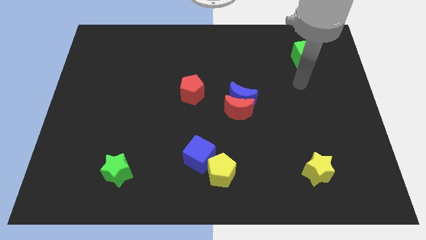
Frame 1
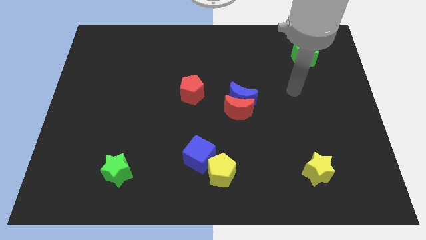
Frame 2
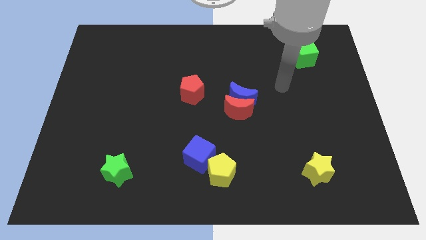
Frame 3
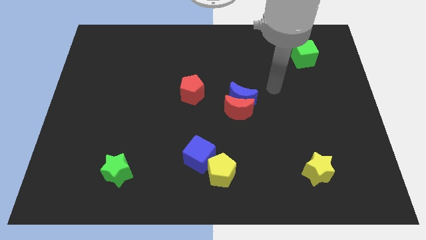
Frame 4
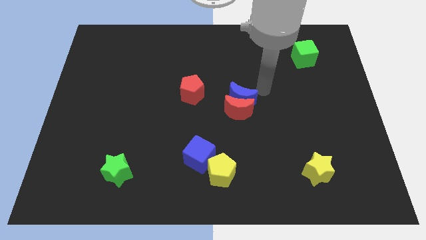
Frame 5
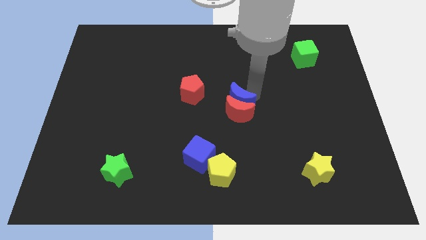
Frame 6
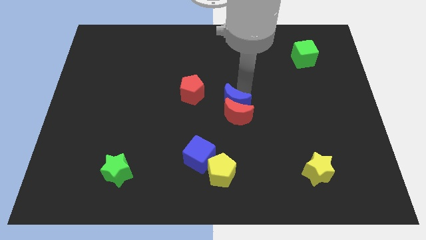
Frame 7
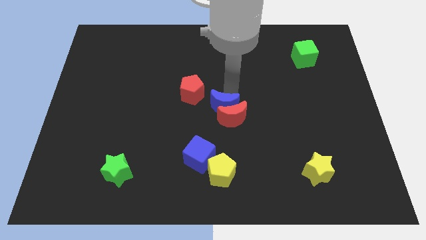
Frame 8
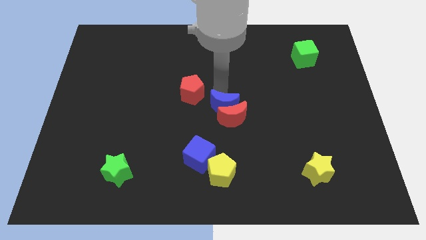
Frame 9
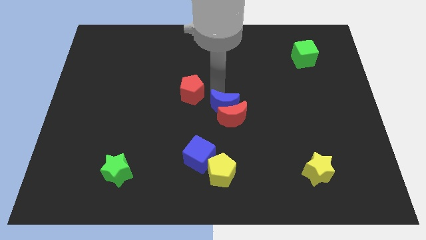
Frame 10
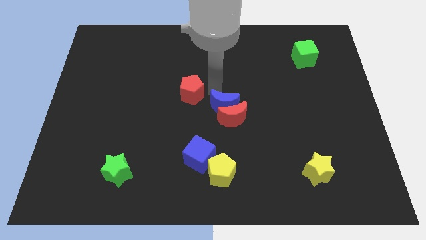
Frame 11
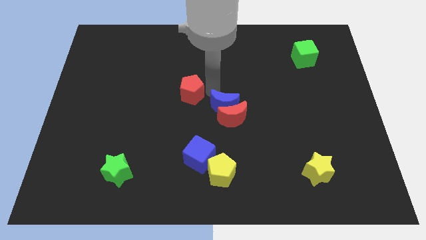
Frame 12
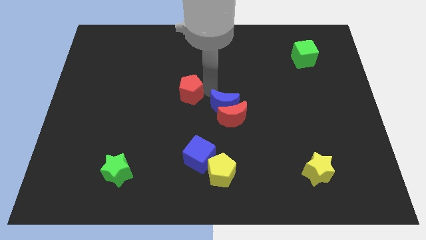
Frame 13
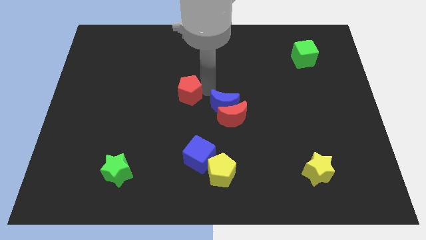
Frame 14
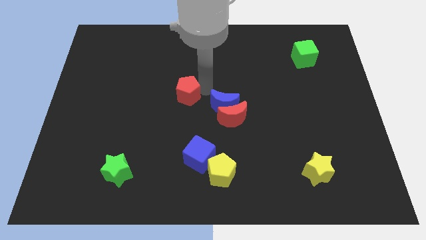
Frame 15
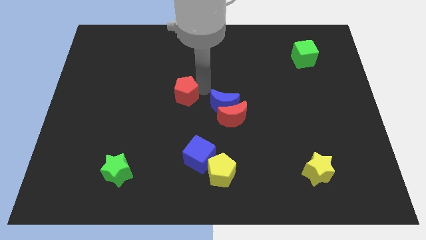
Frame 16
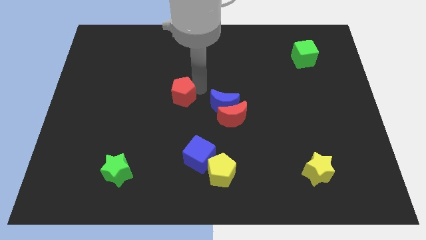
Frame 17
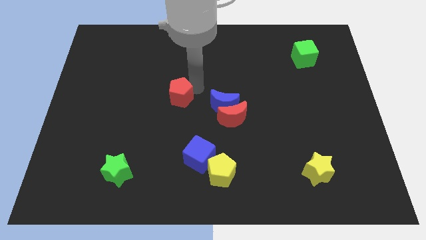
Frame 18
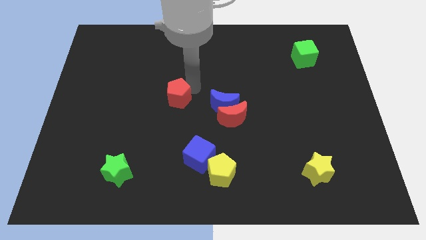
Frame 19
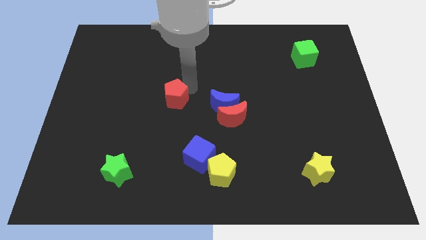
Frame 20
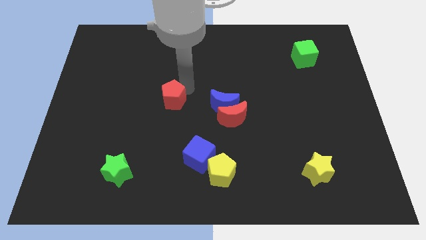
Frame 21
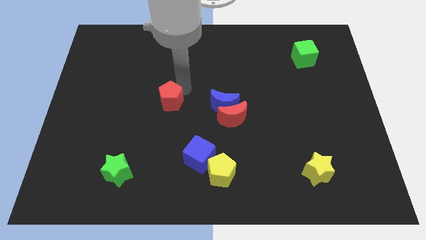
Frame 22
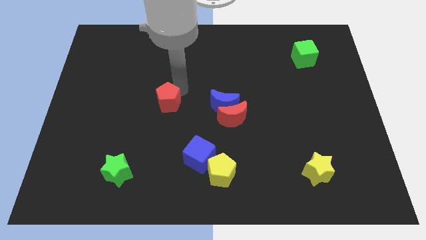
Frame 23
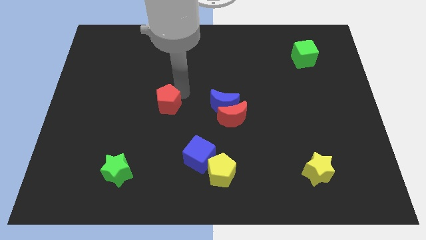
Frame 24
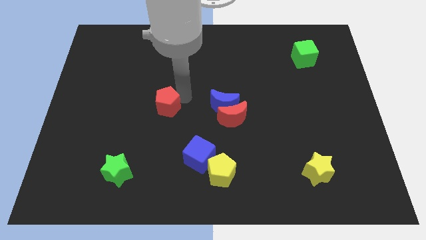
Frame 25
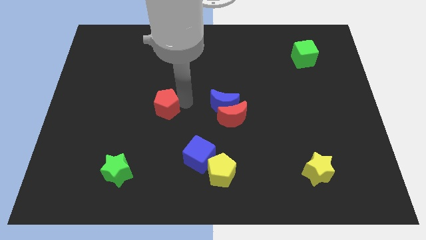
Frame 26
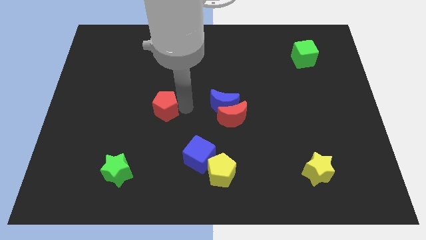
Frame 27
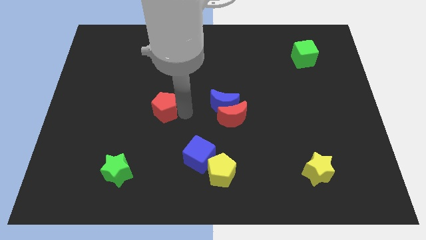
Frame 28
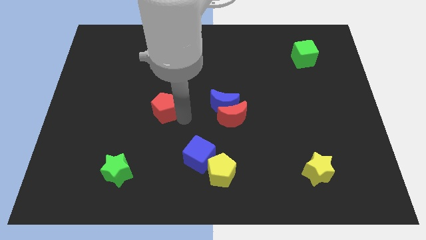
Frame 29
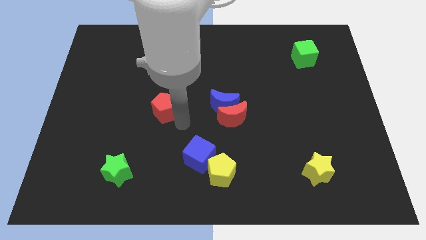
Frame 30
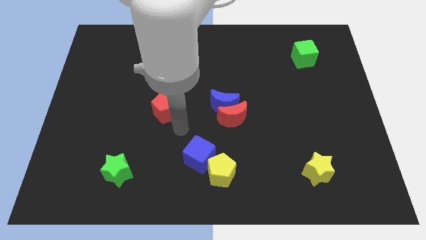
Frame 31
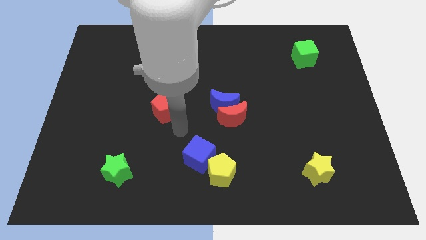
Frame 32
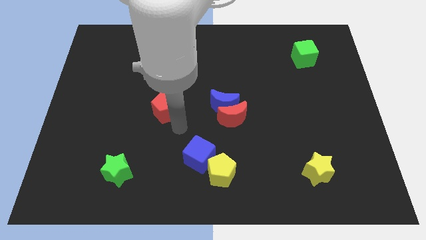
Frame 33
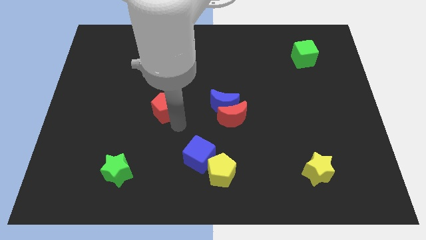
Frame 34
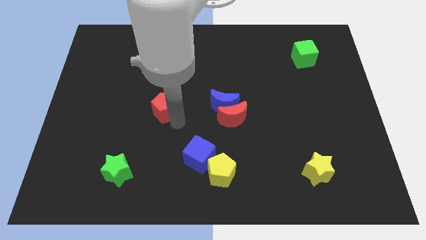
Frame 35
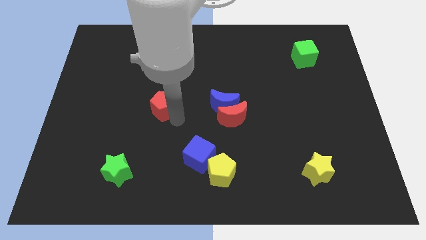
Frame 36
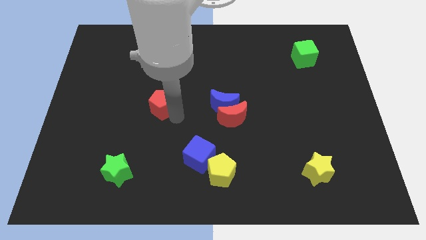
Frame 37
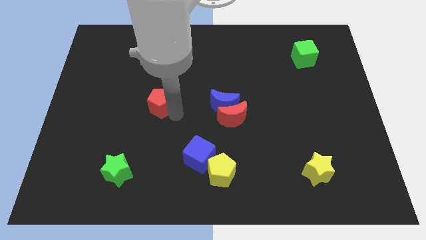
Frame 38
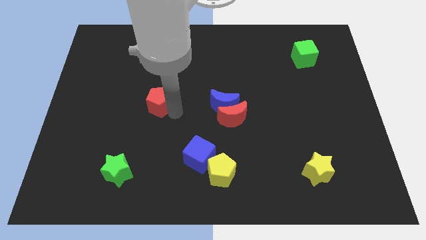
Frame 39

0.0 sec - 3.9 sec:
slide the red pentagon somewhat left

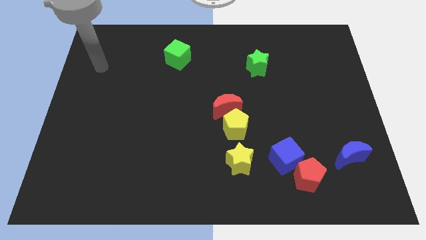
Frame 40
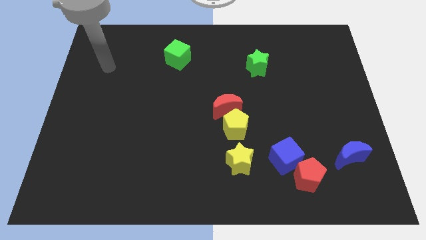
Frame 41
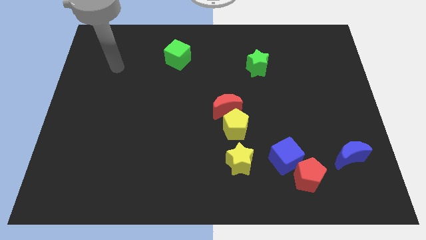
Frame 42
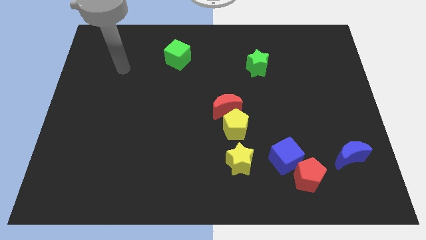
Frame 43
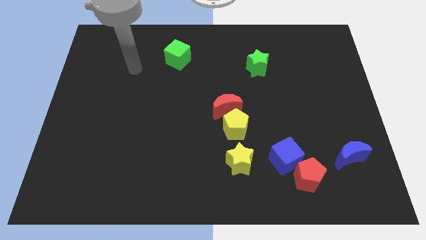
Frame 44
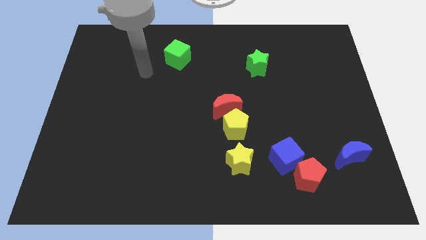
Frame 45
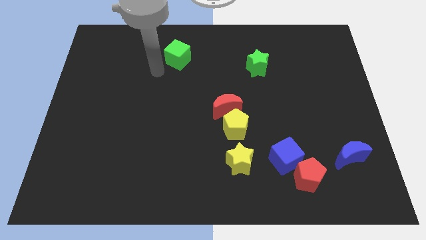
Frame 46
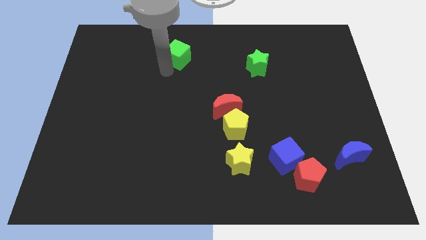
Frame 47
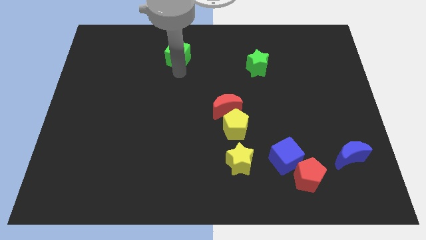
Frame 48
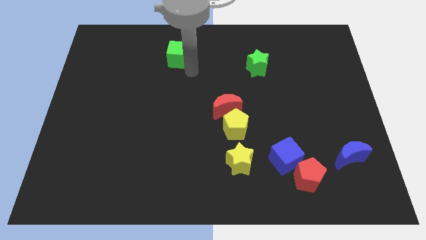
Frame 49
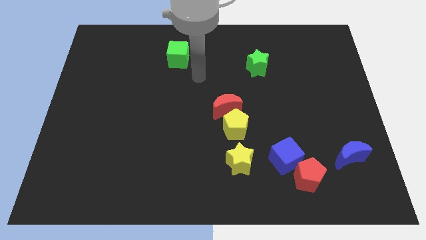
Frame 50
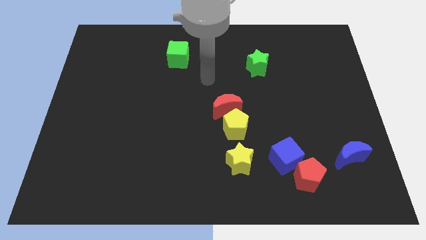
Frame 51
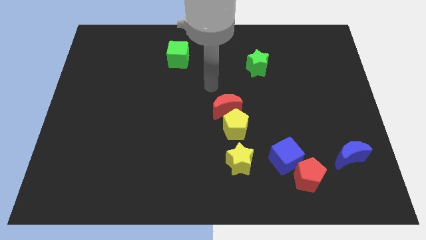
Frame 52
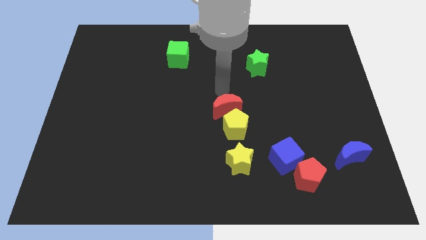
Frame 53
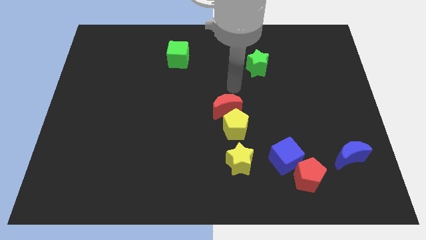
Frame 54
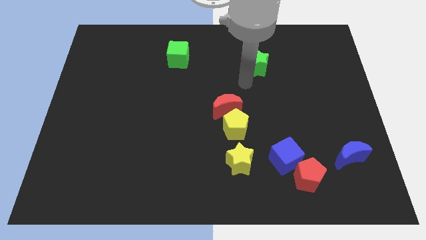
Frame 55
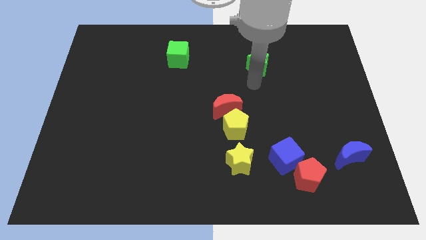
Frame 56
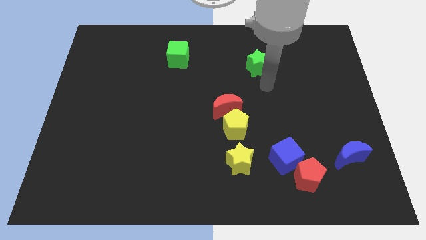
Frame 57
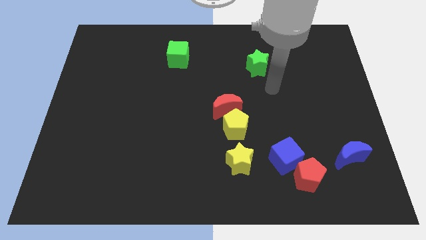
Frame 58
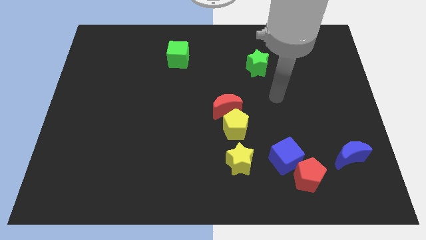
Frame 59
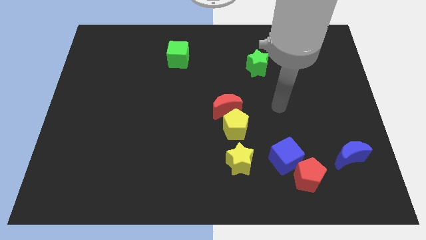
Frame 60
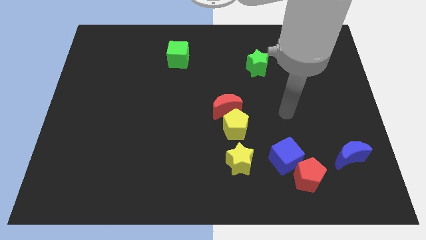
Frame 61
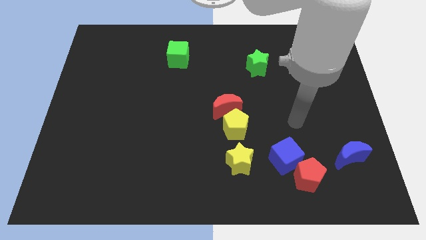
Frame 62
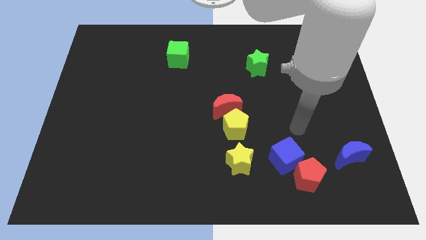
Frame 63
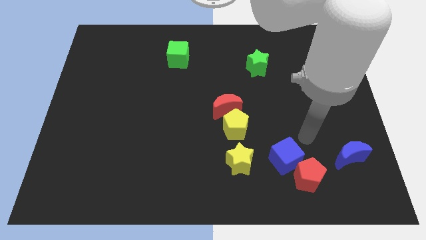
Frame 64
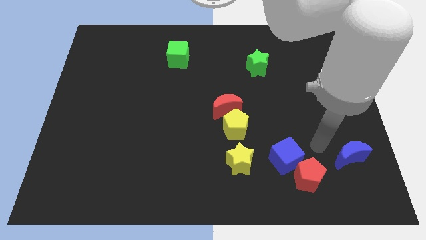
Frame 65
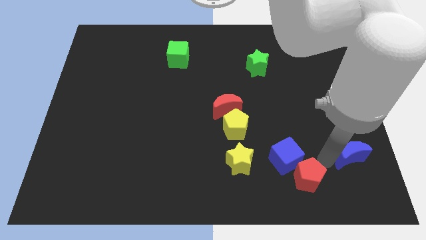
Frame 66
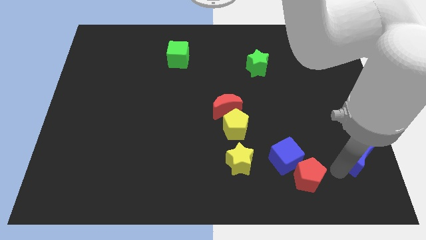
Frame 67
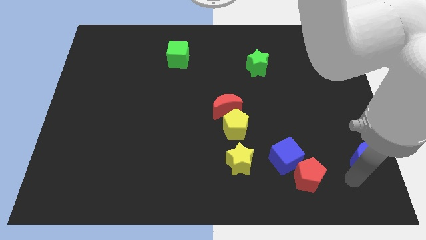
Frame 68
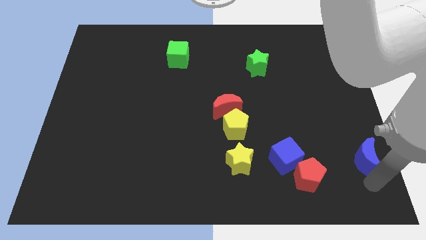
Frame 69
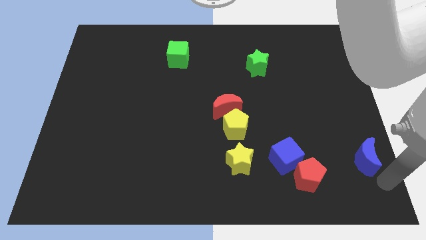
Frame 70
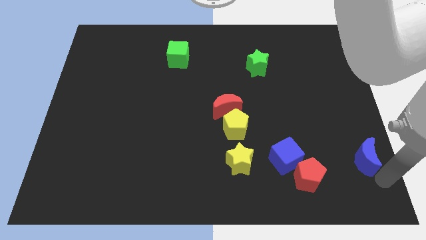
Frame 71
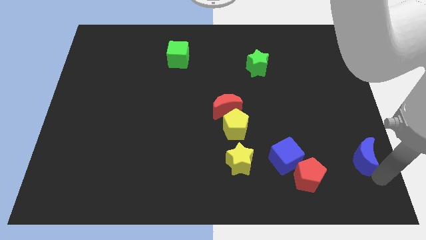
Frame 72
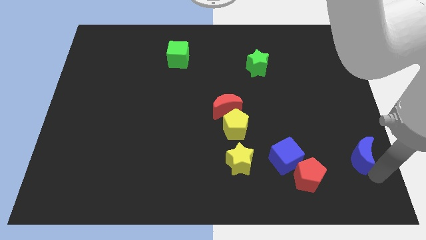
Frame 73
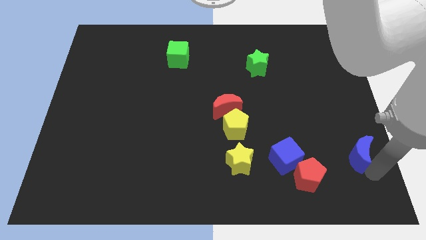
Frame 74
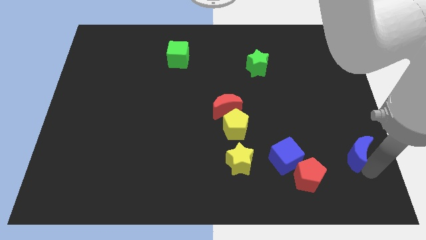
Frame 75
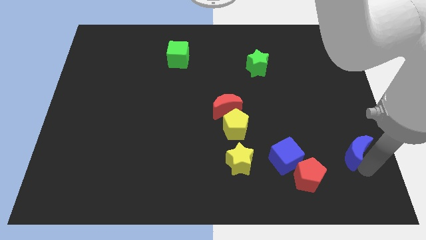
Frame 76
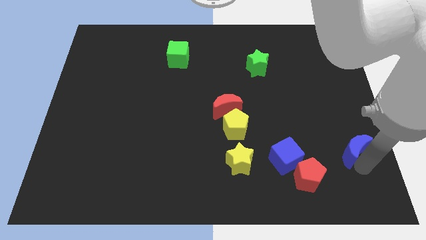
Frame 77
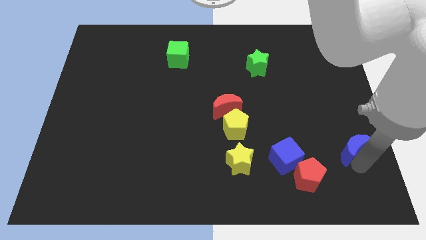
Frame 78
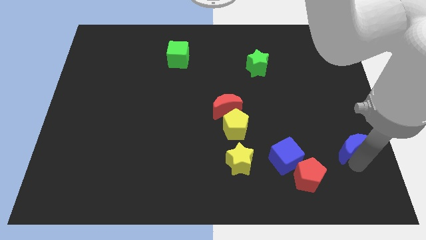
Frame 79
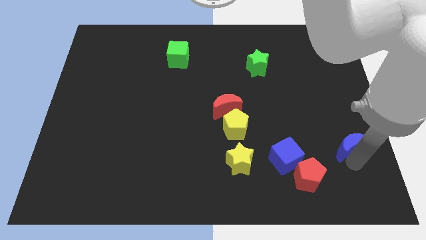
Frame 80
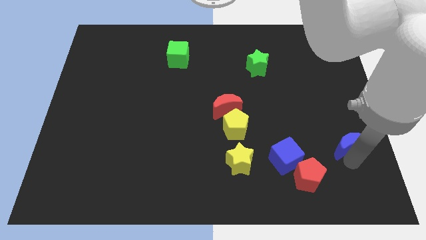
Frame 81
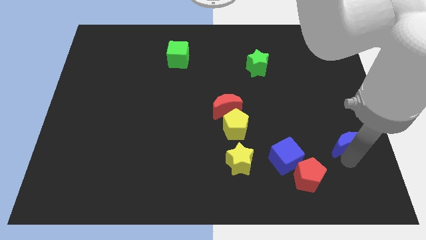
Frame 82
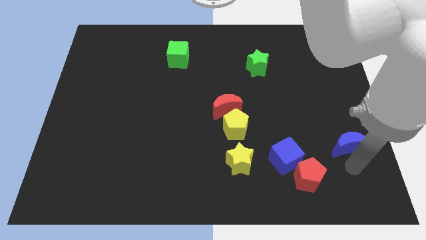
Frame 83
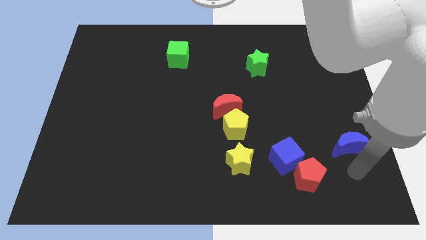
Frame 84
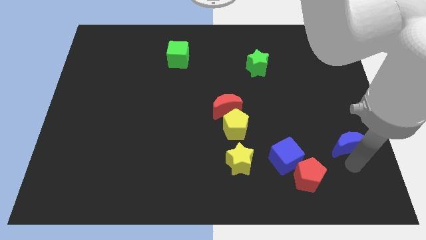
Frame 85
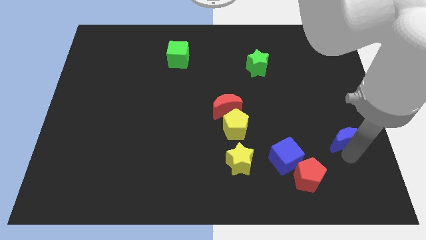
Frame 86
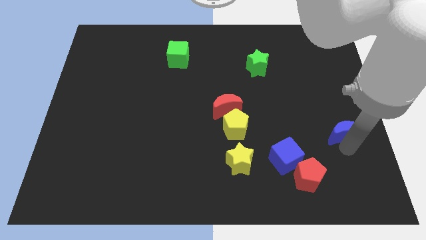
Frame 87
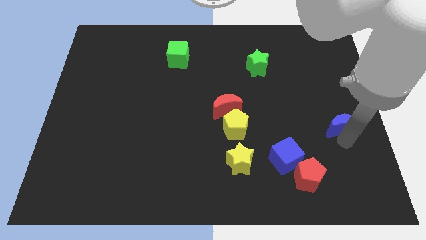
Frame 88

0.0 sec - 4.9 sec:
push the blue moon upwards a little
